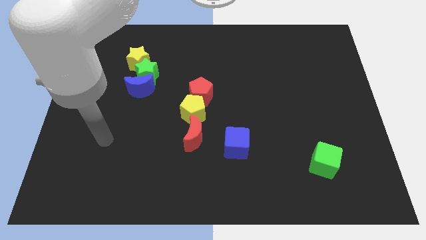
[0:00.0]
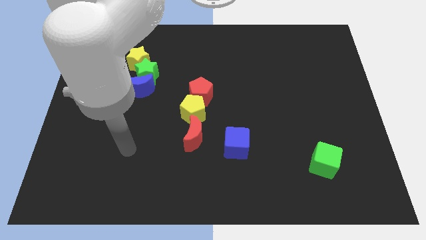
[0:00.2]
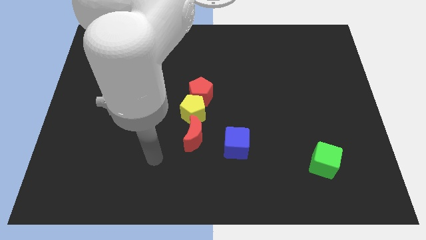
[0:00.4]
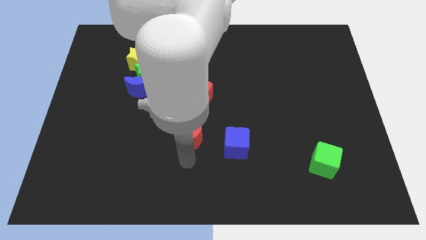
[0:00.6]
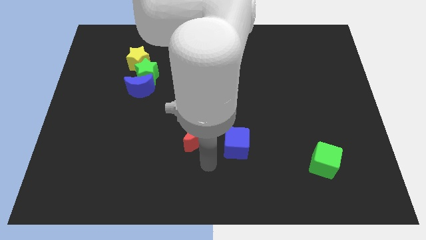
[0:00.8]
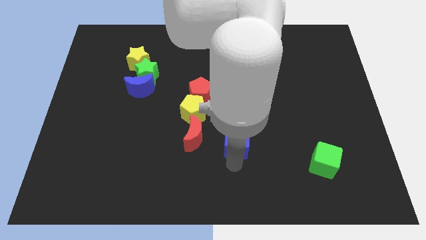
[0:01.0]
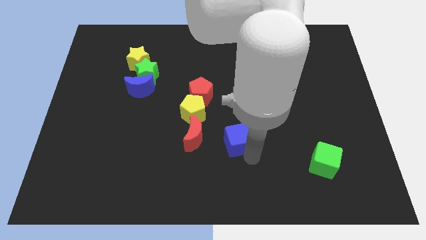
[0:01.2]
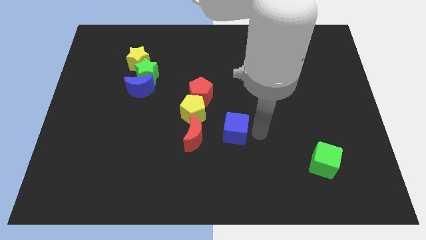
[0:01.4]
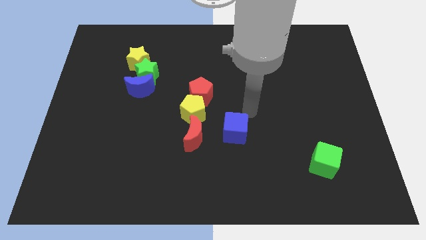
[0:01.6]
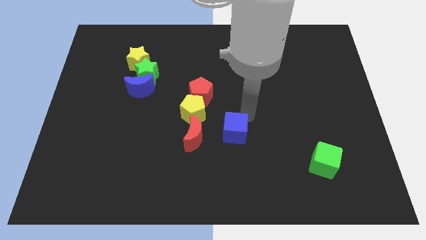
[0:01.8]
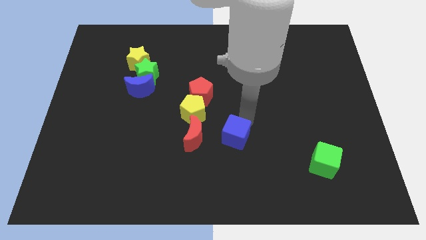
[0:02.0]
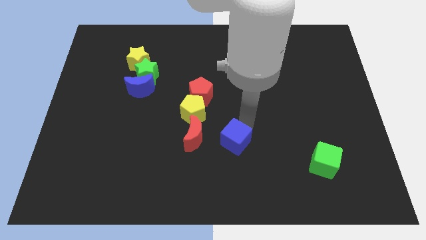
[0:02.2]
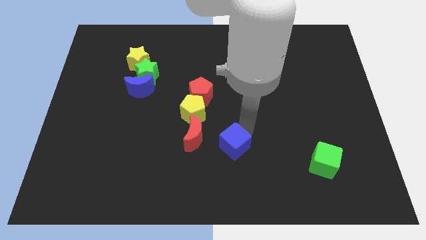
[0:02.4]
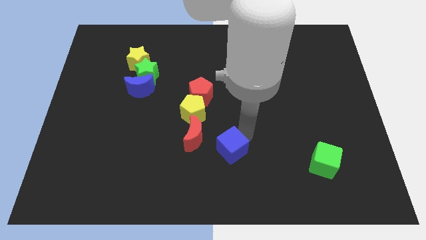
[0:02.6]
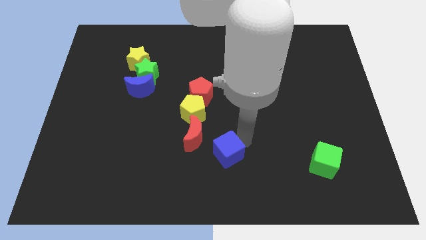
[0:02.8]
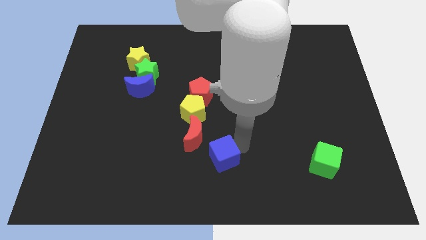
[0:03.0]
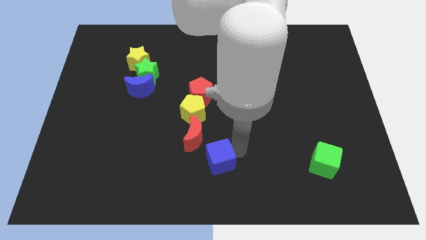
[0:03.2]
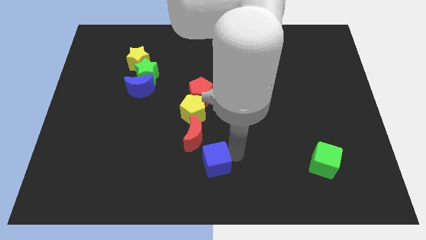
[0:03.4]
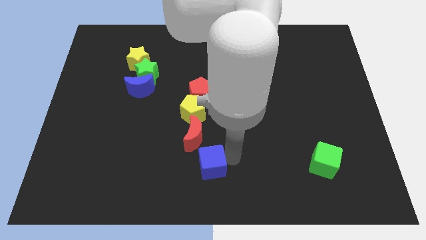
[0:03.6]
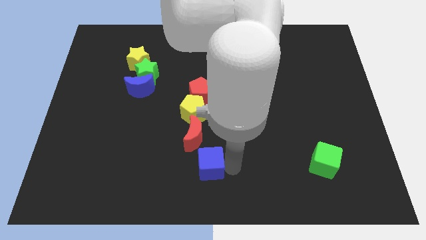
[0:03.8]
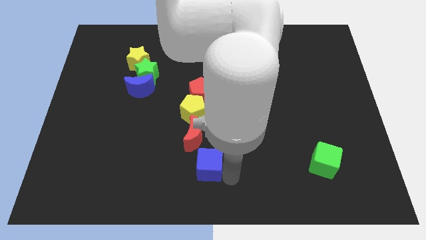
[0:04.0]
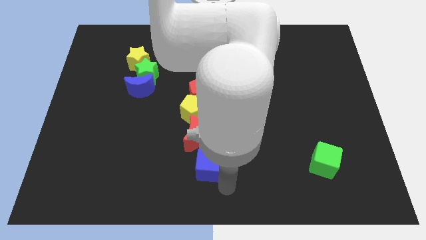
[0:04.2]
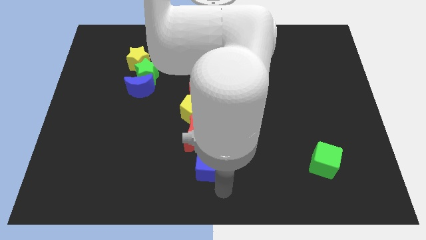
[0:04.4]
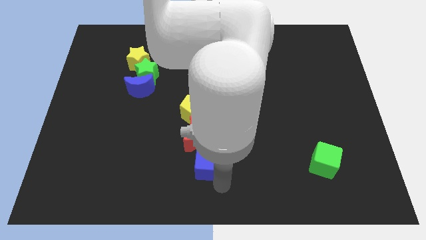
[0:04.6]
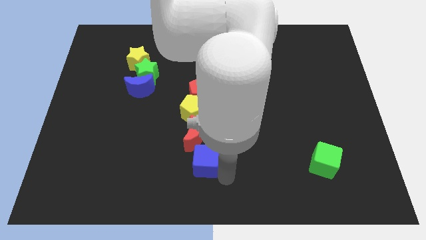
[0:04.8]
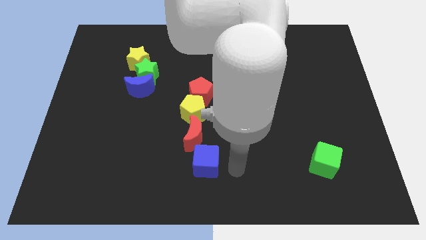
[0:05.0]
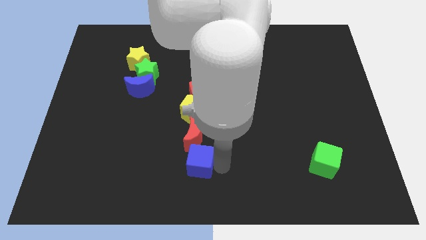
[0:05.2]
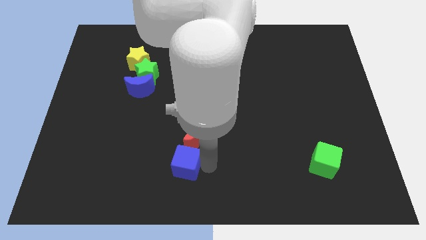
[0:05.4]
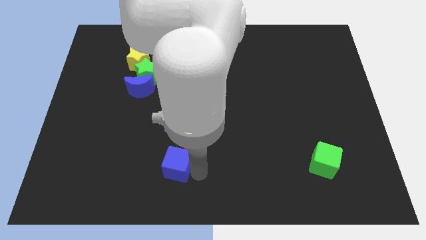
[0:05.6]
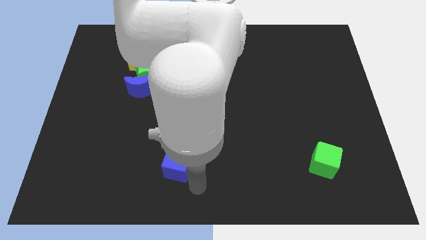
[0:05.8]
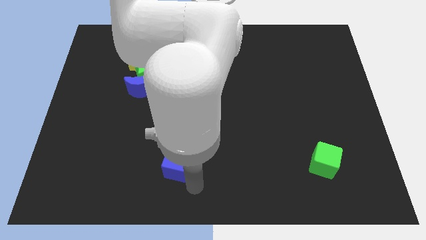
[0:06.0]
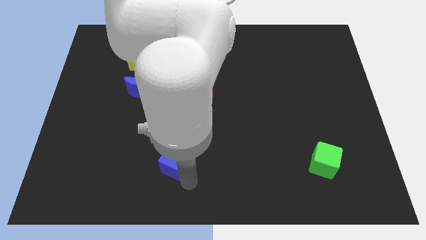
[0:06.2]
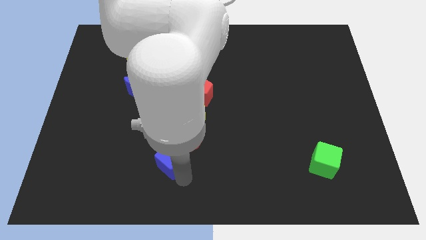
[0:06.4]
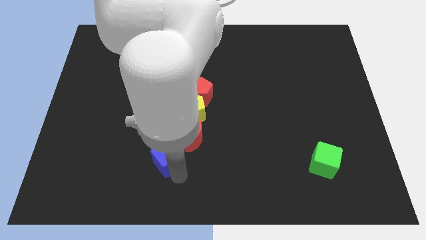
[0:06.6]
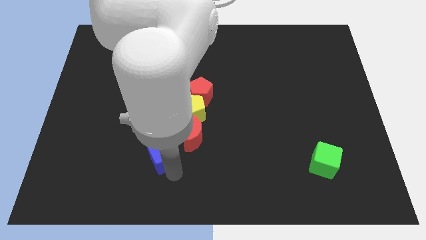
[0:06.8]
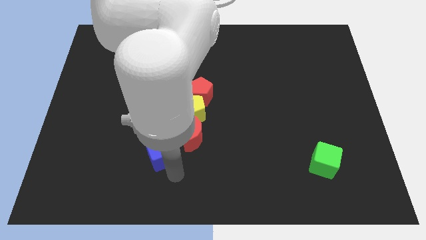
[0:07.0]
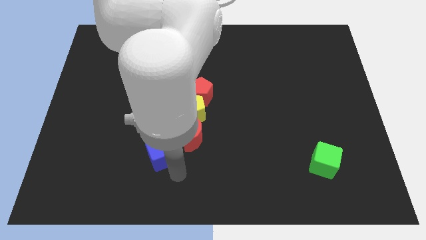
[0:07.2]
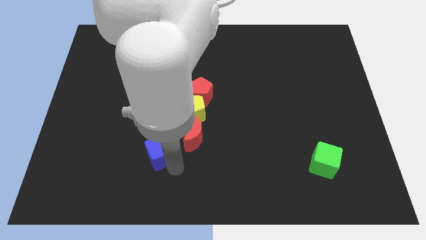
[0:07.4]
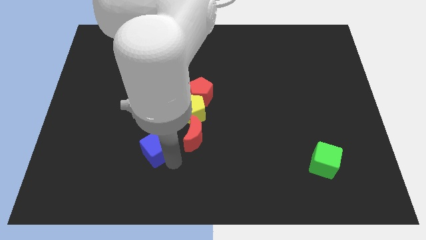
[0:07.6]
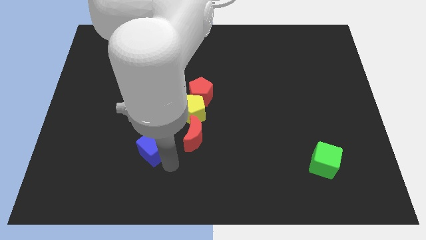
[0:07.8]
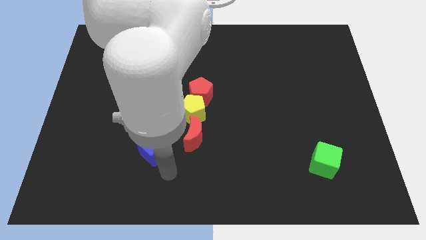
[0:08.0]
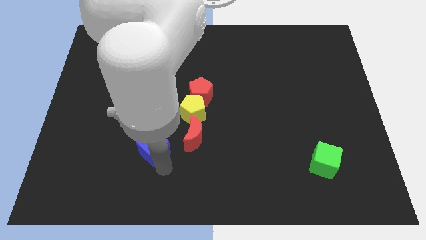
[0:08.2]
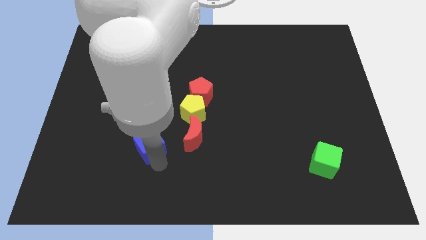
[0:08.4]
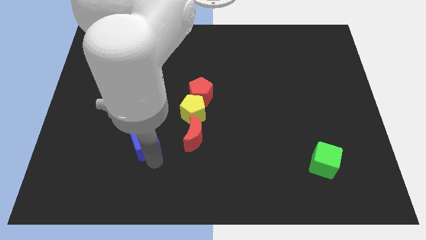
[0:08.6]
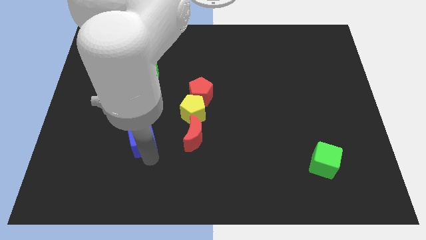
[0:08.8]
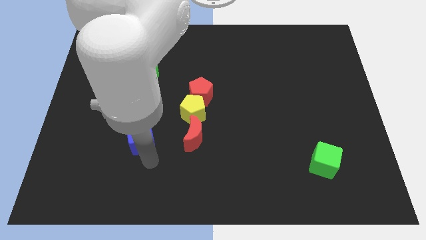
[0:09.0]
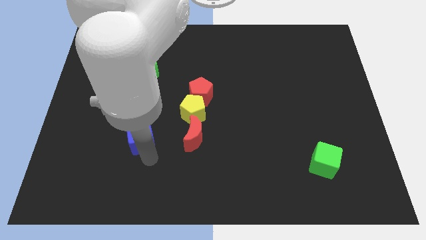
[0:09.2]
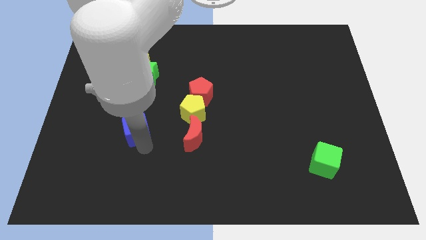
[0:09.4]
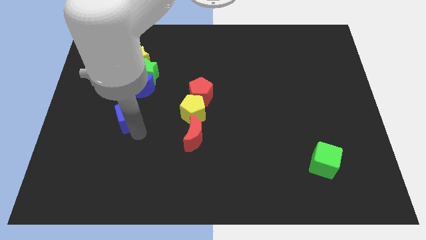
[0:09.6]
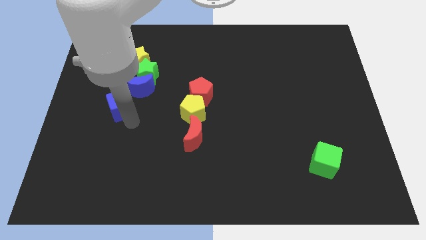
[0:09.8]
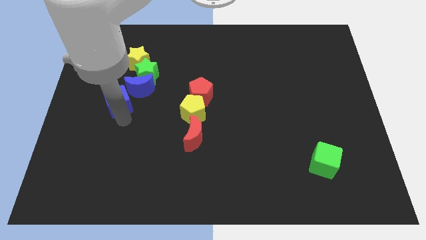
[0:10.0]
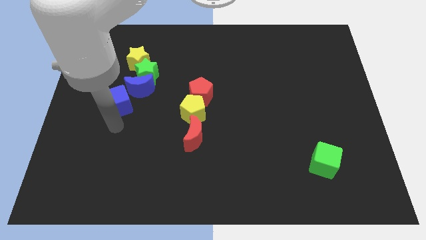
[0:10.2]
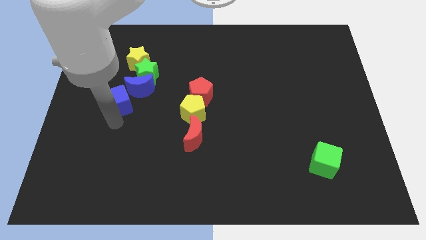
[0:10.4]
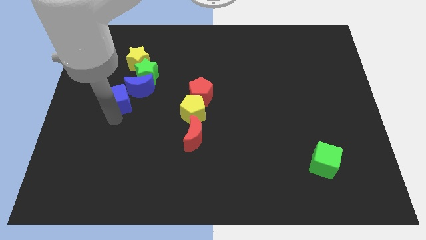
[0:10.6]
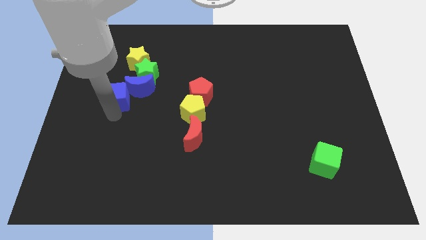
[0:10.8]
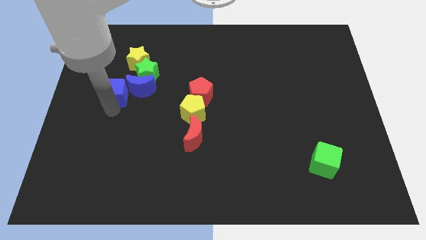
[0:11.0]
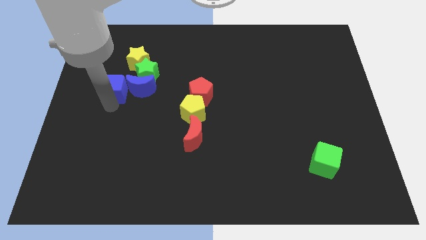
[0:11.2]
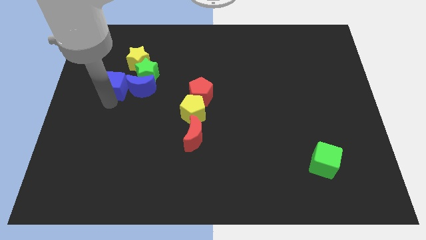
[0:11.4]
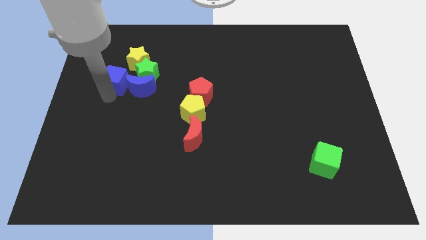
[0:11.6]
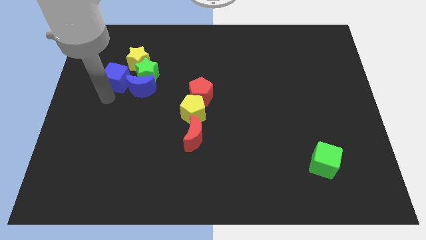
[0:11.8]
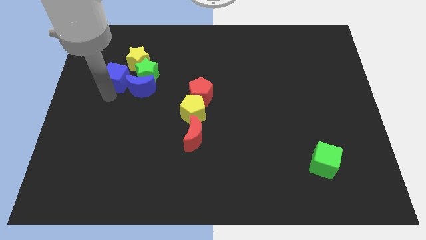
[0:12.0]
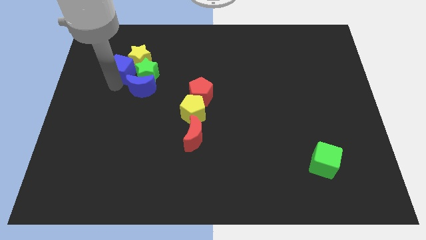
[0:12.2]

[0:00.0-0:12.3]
put the blue cube diagonally up and to the left of the green star

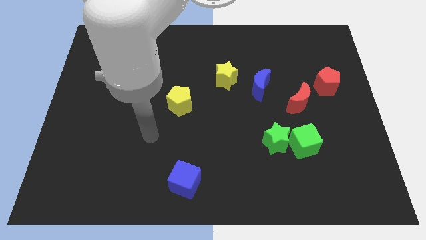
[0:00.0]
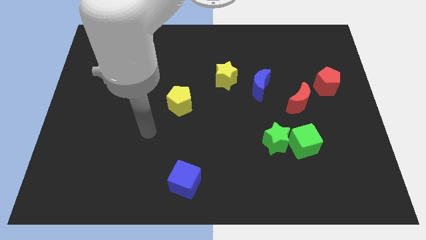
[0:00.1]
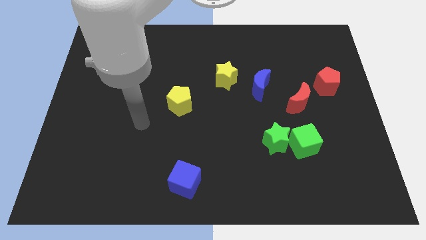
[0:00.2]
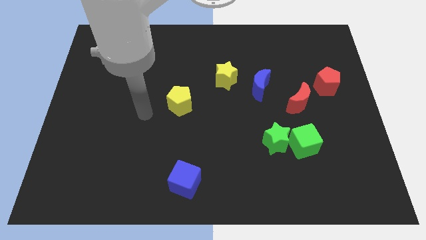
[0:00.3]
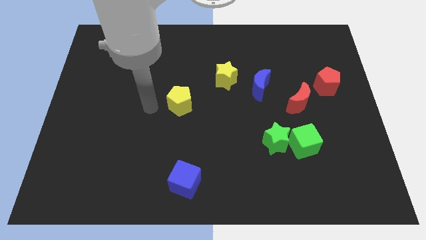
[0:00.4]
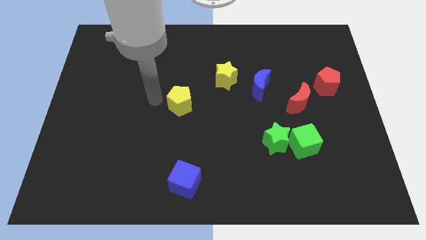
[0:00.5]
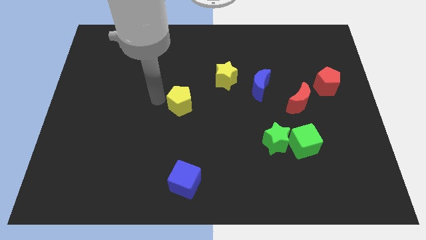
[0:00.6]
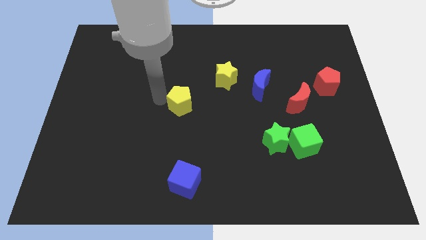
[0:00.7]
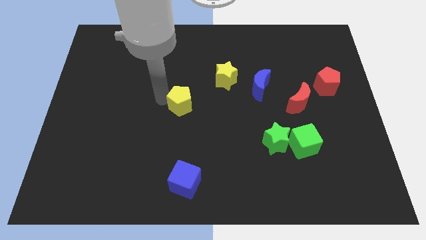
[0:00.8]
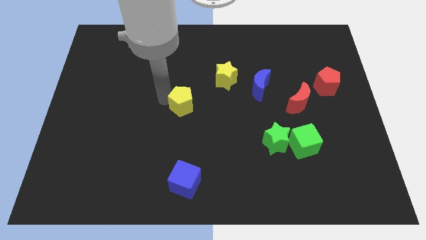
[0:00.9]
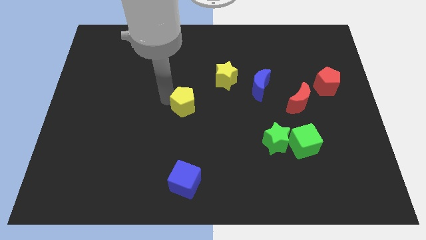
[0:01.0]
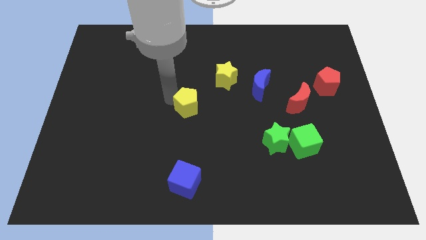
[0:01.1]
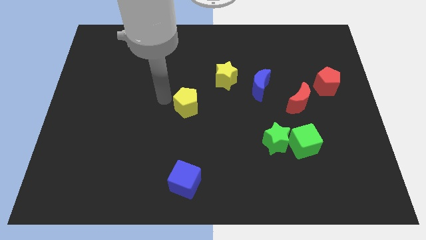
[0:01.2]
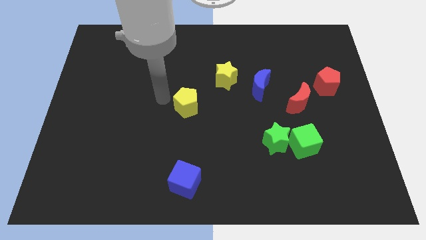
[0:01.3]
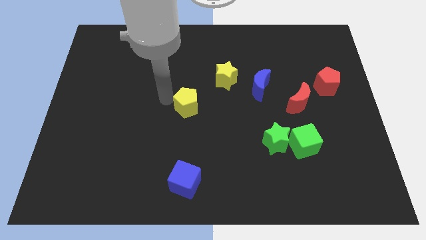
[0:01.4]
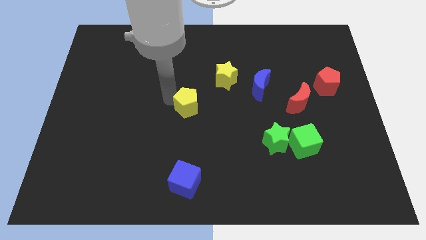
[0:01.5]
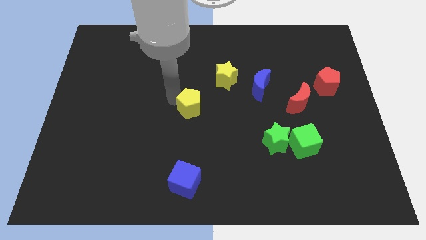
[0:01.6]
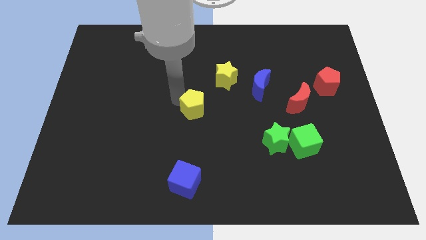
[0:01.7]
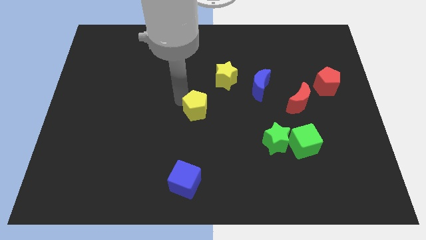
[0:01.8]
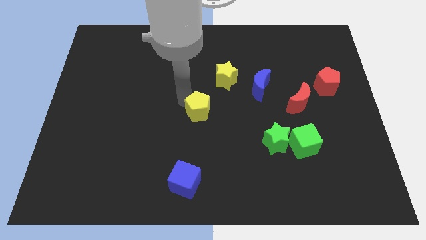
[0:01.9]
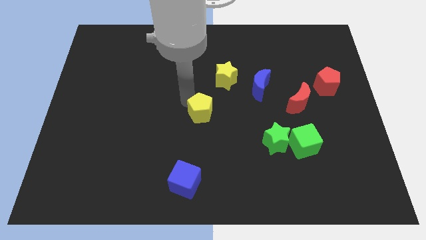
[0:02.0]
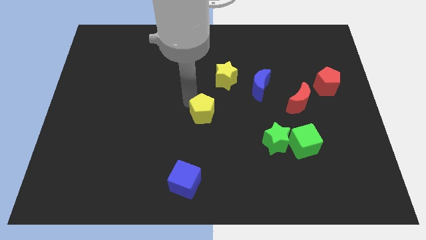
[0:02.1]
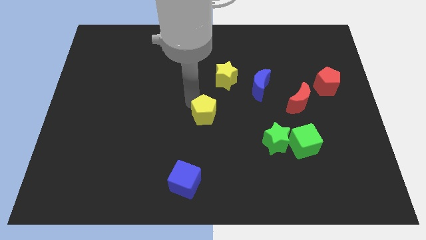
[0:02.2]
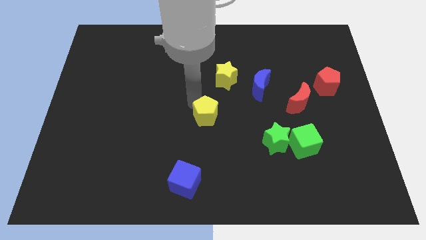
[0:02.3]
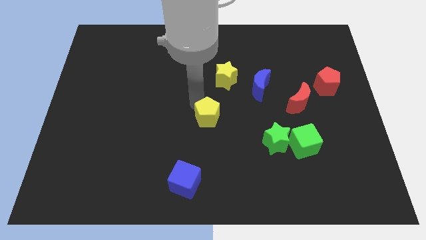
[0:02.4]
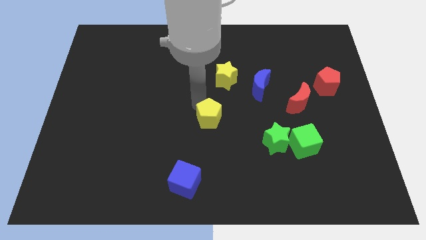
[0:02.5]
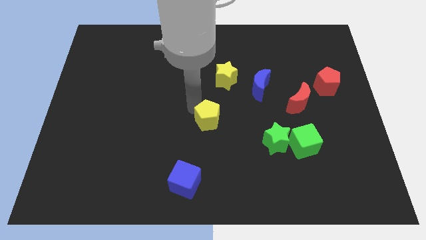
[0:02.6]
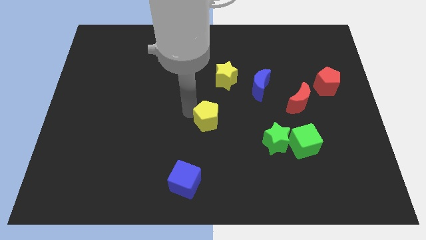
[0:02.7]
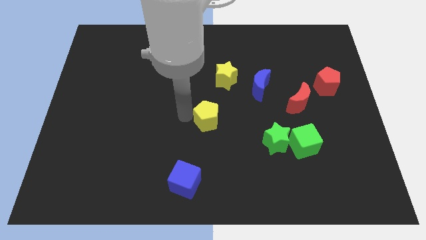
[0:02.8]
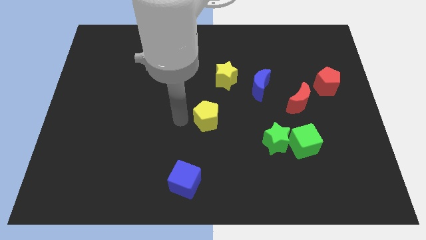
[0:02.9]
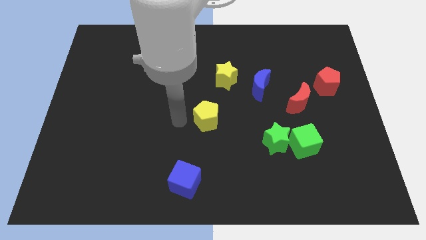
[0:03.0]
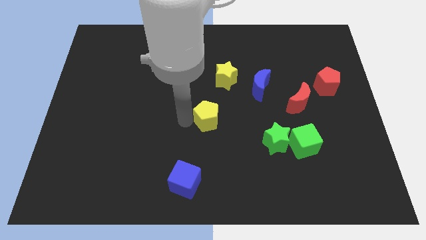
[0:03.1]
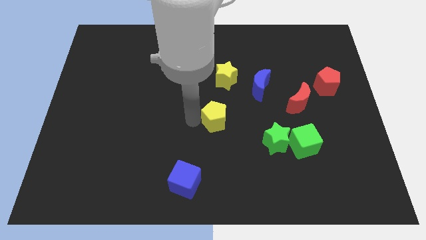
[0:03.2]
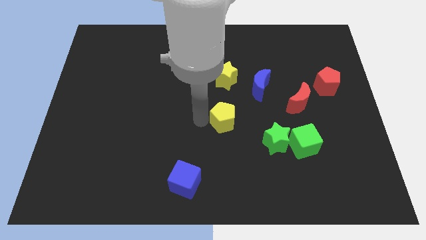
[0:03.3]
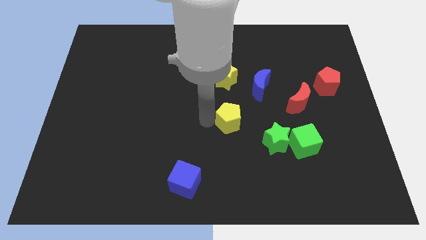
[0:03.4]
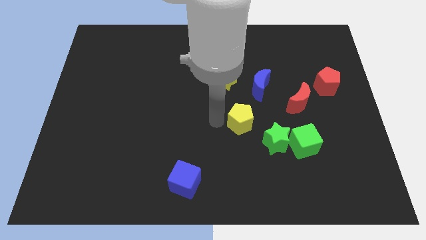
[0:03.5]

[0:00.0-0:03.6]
push the yellow pentagon below the blue moon
